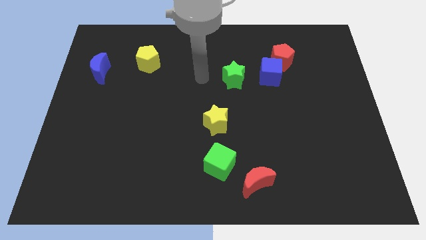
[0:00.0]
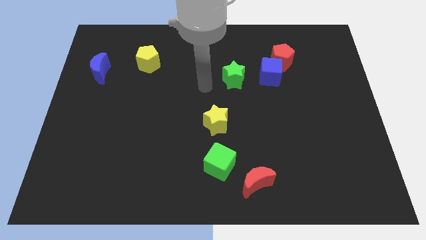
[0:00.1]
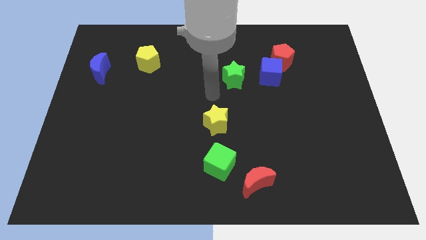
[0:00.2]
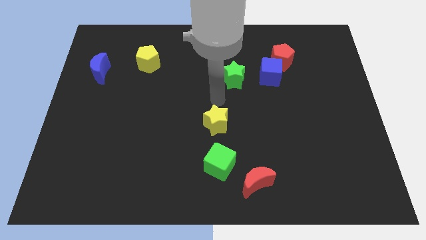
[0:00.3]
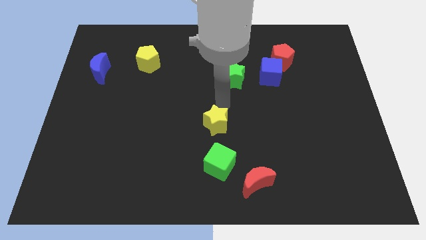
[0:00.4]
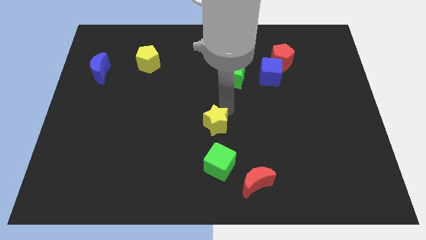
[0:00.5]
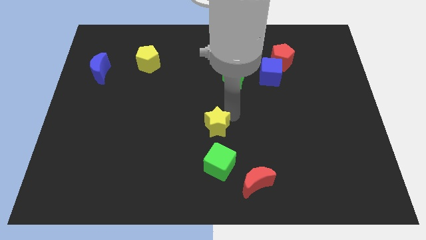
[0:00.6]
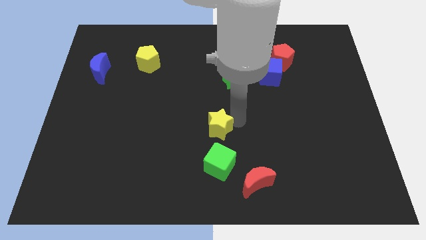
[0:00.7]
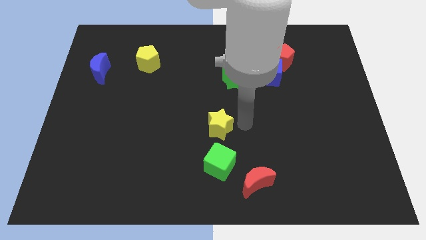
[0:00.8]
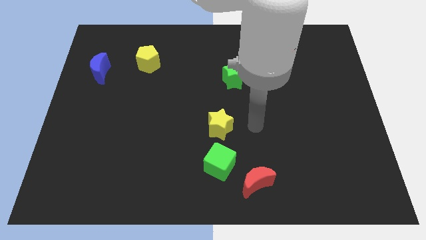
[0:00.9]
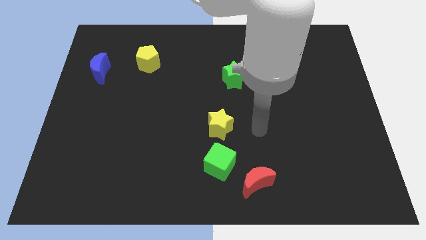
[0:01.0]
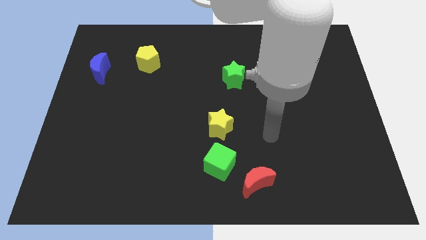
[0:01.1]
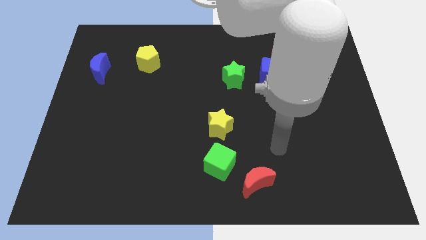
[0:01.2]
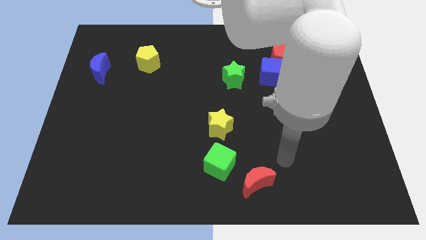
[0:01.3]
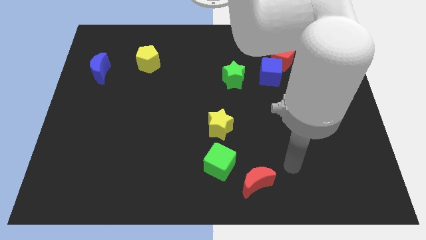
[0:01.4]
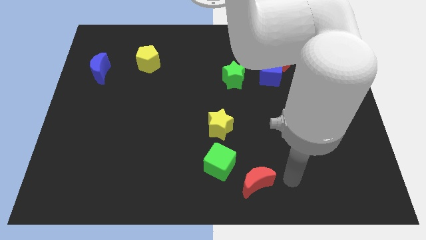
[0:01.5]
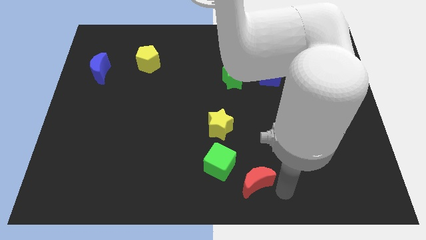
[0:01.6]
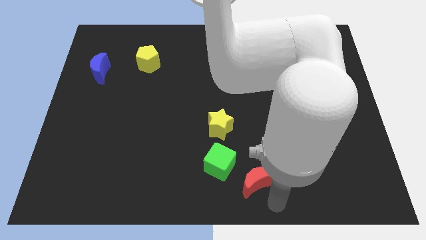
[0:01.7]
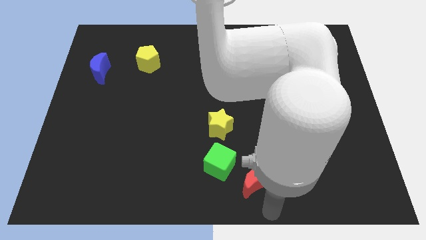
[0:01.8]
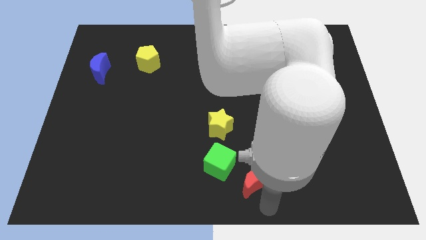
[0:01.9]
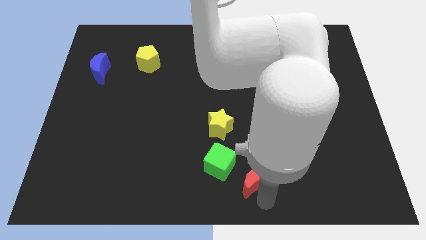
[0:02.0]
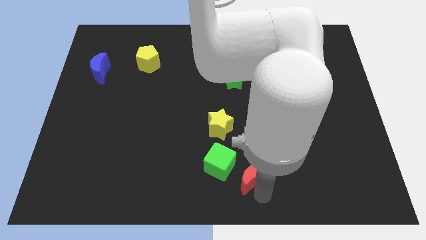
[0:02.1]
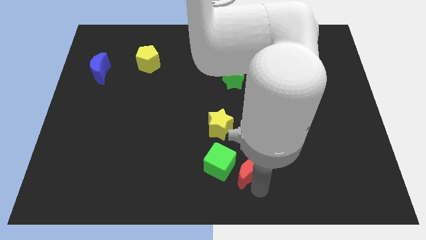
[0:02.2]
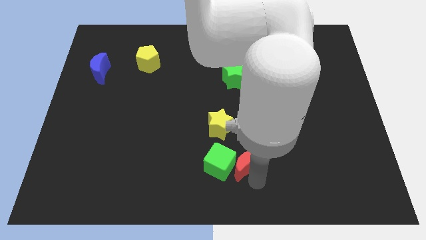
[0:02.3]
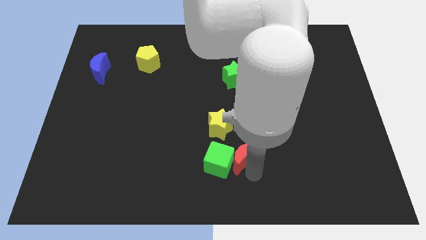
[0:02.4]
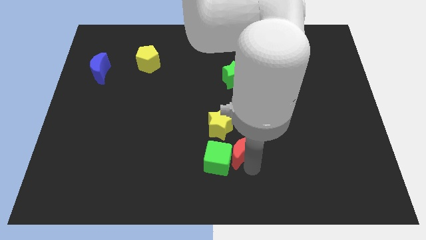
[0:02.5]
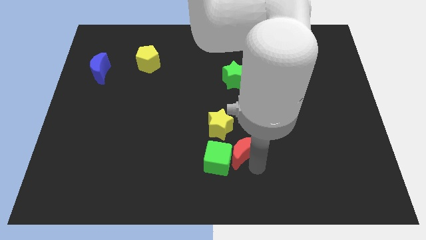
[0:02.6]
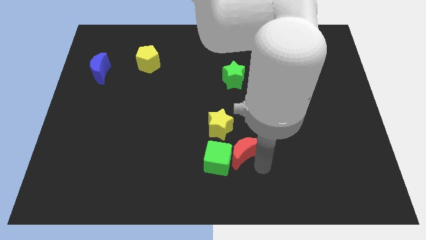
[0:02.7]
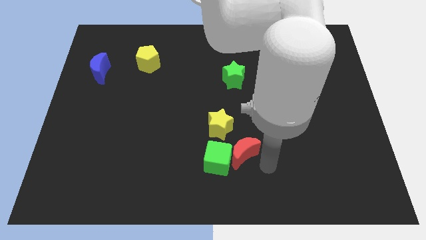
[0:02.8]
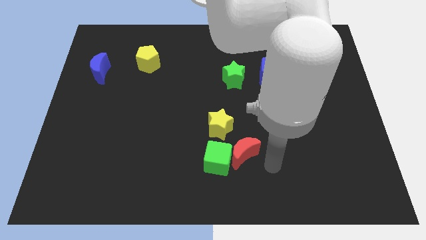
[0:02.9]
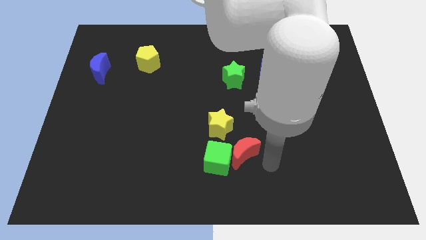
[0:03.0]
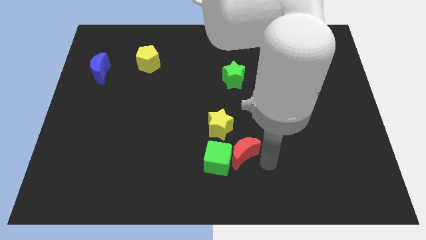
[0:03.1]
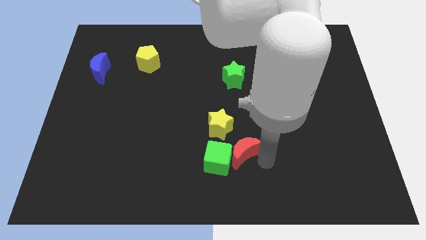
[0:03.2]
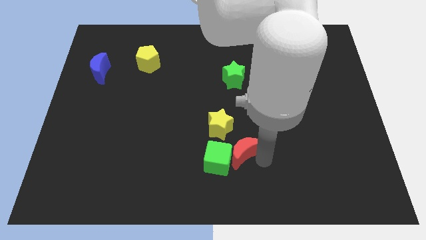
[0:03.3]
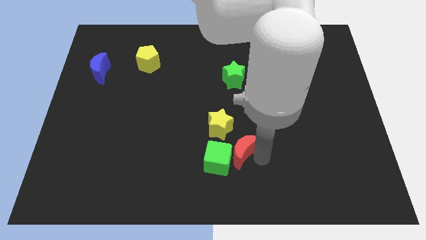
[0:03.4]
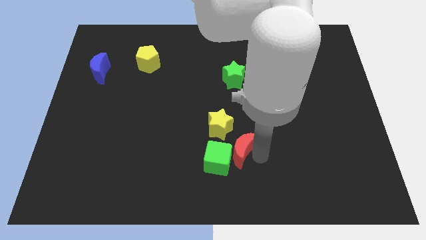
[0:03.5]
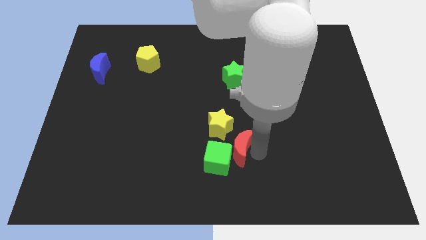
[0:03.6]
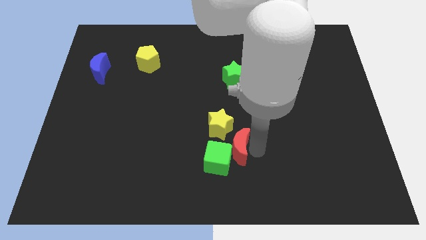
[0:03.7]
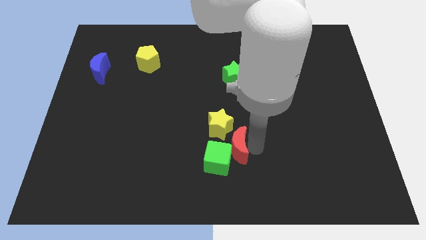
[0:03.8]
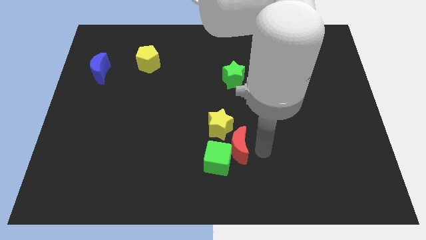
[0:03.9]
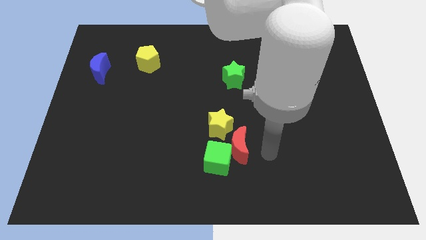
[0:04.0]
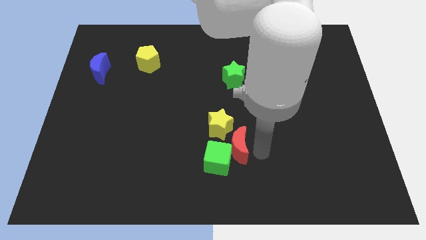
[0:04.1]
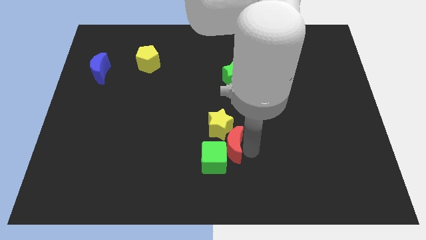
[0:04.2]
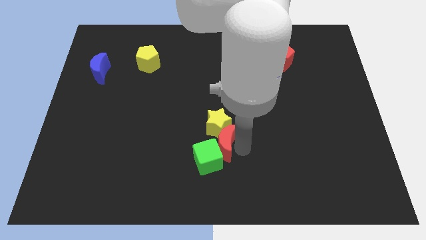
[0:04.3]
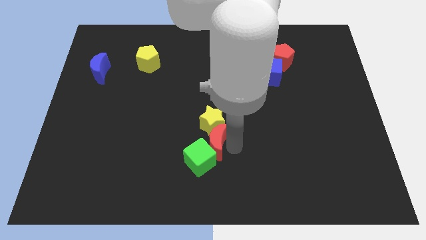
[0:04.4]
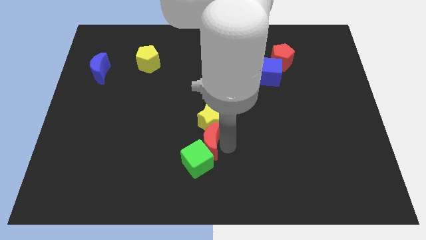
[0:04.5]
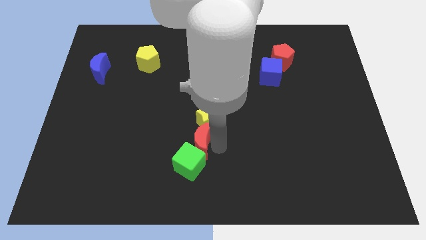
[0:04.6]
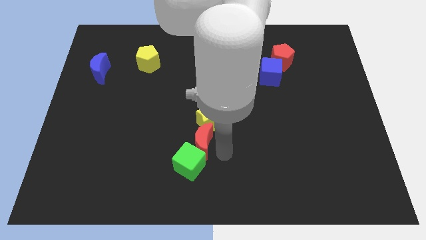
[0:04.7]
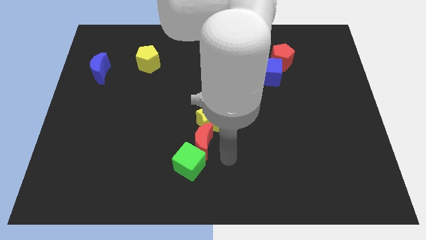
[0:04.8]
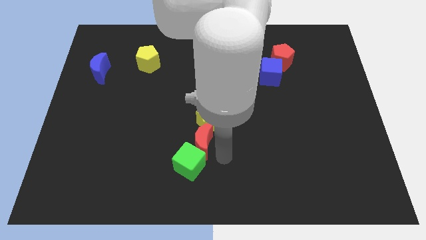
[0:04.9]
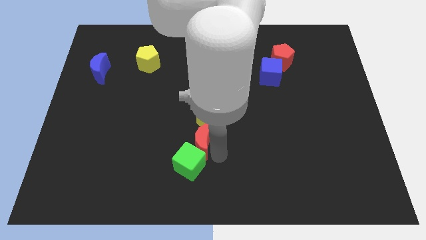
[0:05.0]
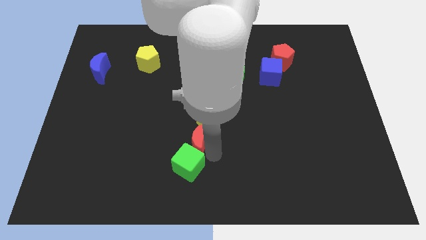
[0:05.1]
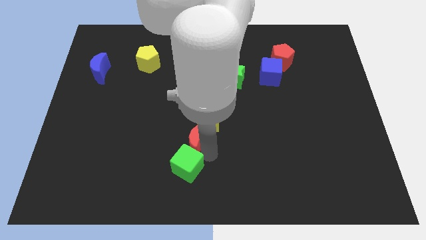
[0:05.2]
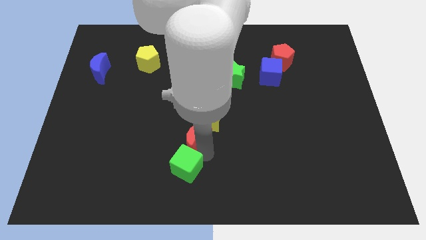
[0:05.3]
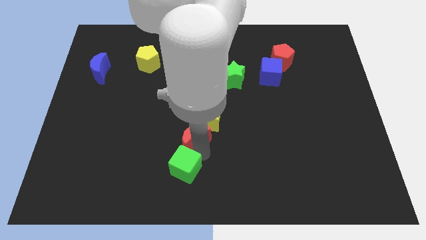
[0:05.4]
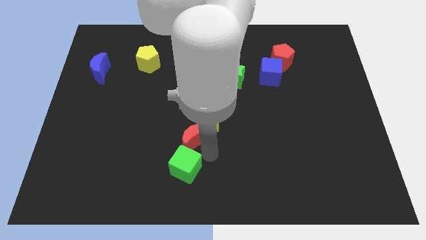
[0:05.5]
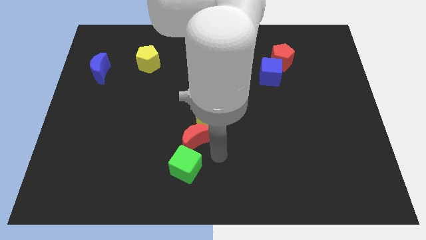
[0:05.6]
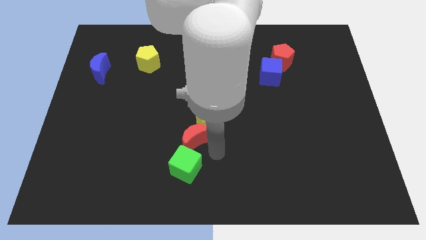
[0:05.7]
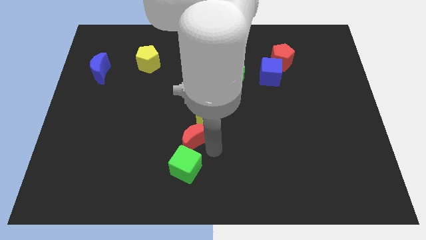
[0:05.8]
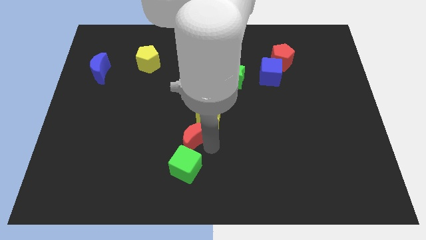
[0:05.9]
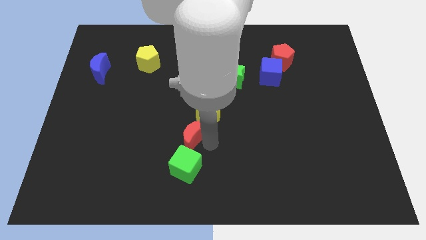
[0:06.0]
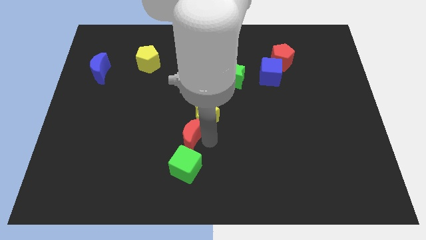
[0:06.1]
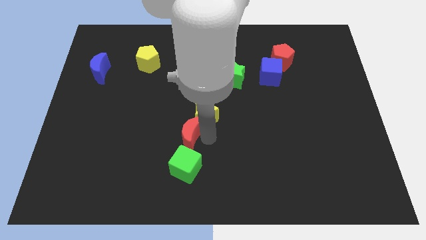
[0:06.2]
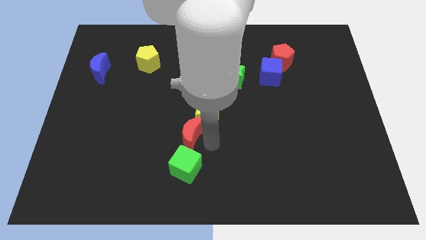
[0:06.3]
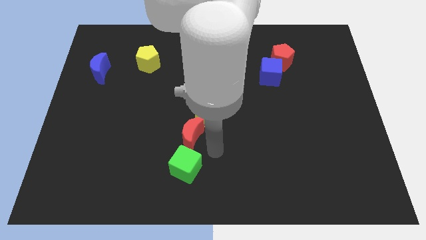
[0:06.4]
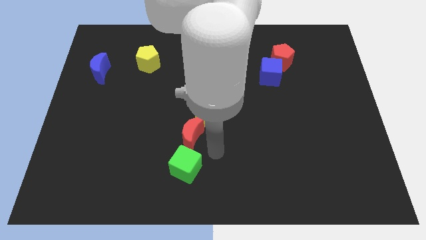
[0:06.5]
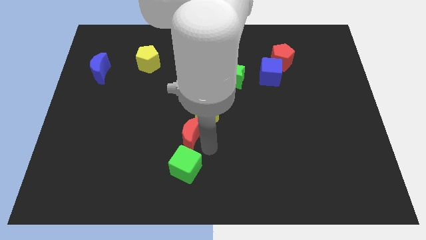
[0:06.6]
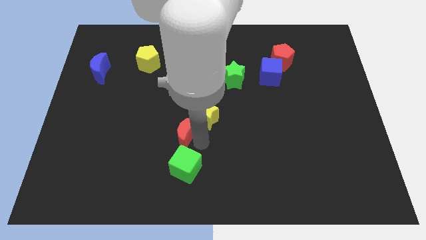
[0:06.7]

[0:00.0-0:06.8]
push the red moon to the left side of the yellow star
